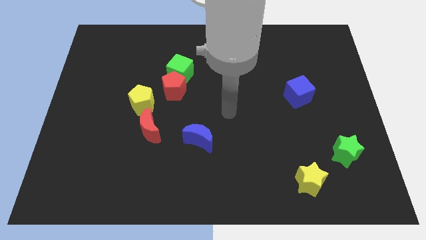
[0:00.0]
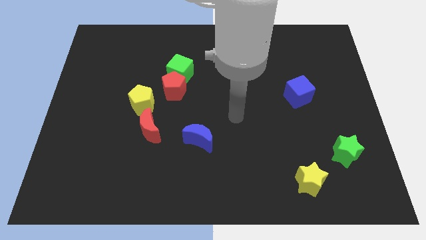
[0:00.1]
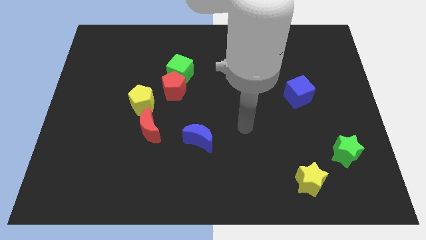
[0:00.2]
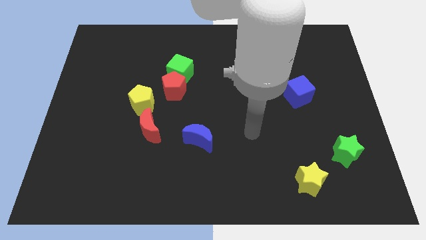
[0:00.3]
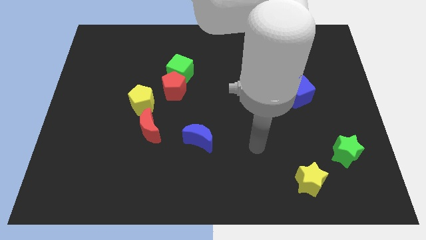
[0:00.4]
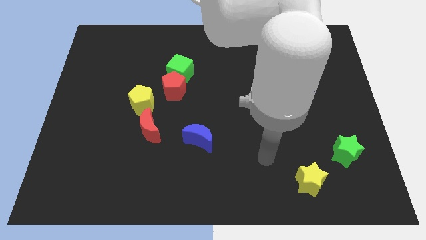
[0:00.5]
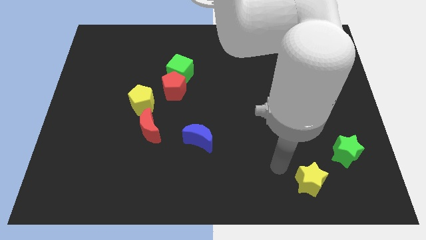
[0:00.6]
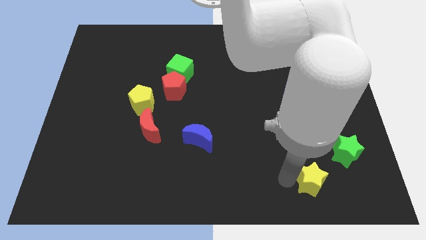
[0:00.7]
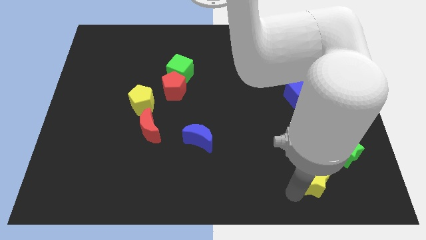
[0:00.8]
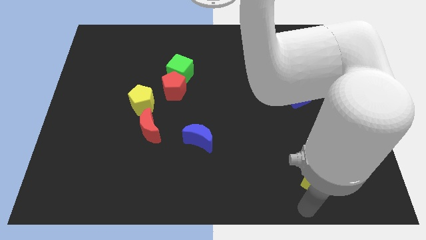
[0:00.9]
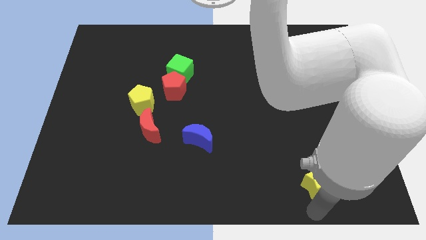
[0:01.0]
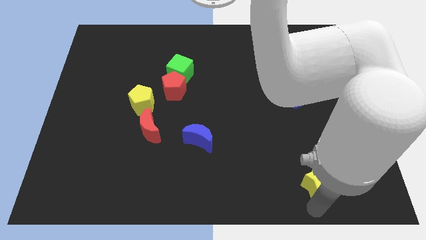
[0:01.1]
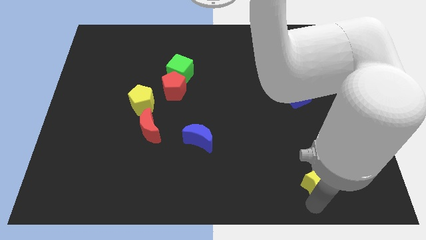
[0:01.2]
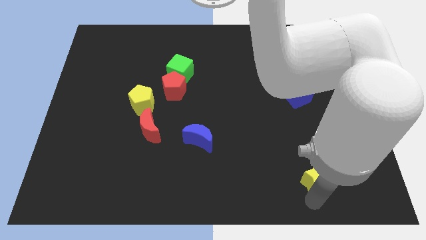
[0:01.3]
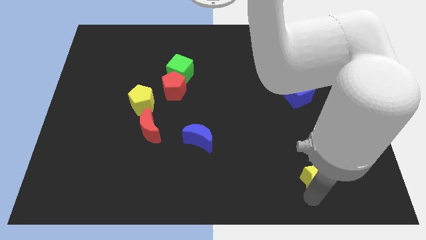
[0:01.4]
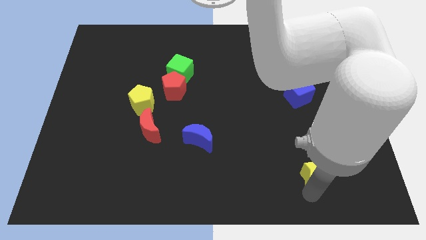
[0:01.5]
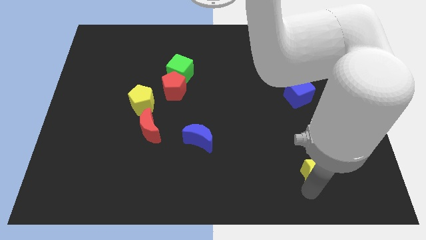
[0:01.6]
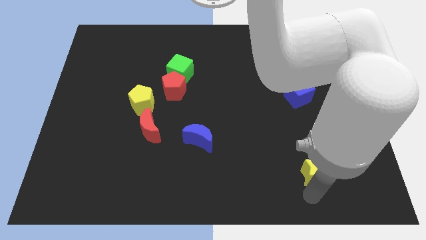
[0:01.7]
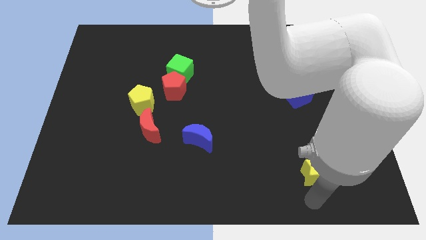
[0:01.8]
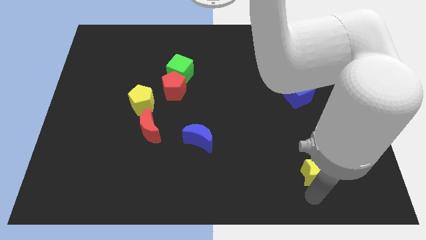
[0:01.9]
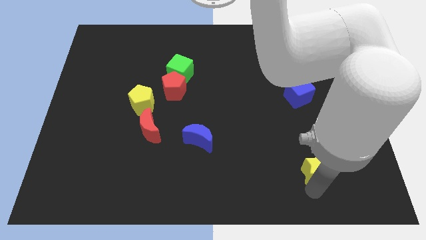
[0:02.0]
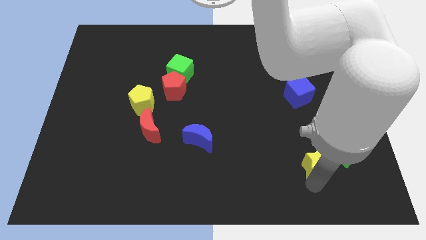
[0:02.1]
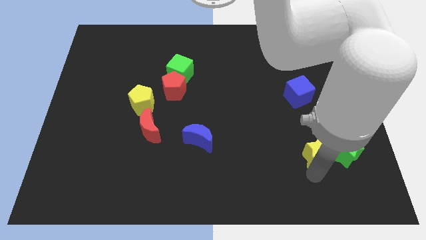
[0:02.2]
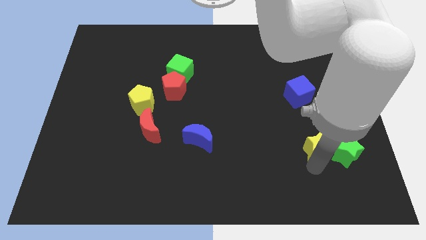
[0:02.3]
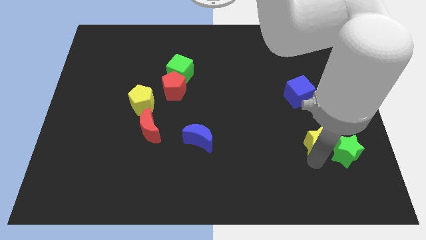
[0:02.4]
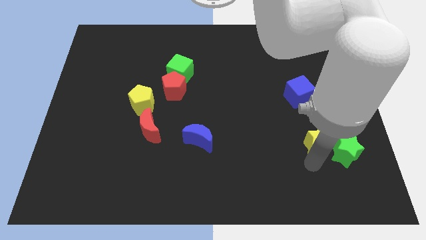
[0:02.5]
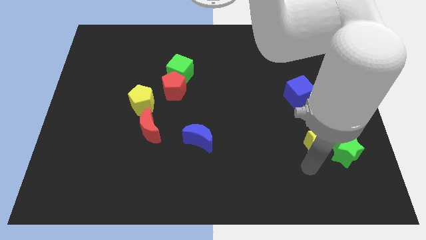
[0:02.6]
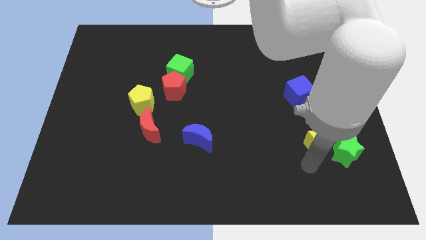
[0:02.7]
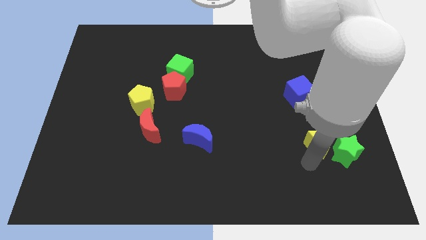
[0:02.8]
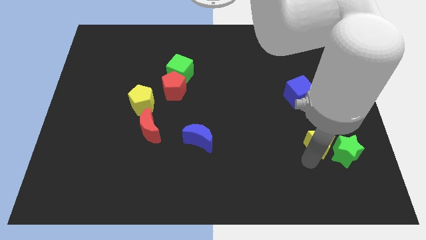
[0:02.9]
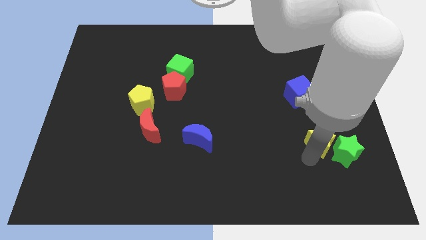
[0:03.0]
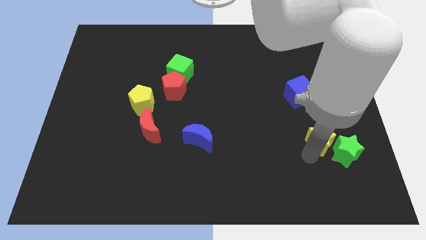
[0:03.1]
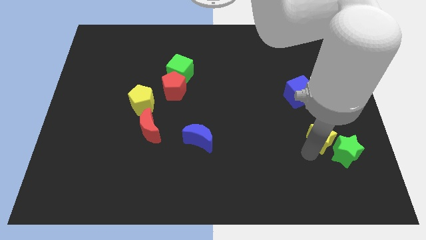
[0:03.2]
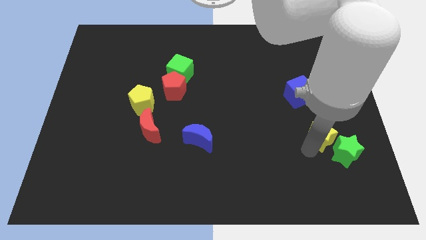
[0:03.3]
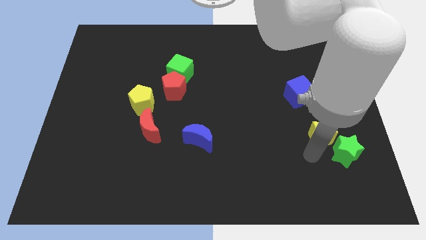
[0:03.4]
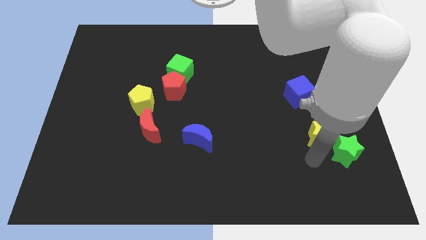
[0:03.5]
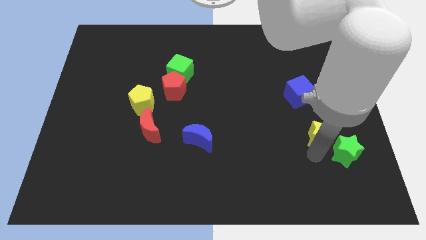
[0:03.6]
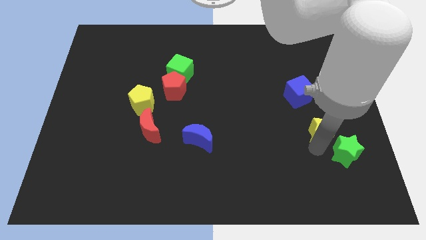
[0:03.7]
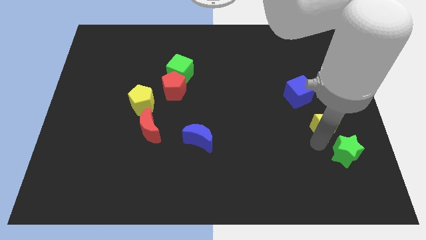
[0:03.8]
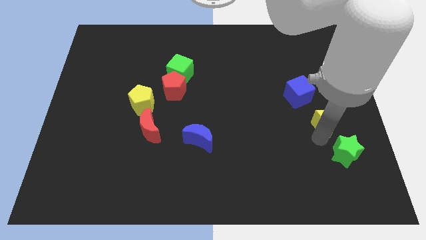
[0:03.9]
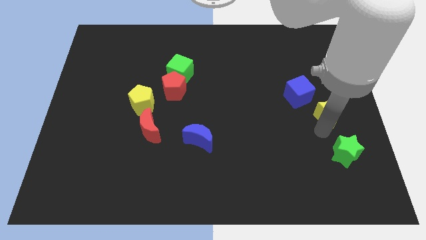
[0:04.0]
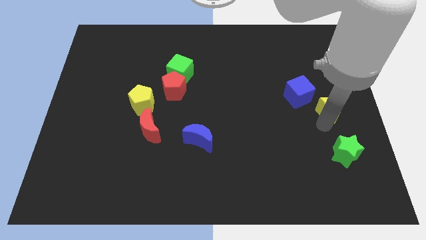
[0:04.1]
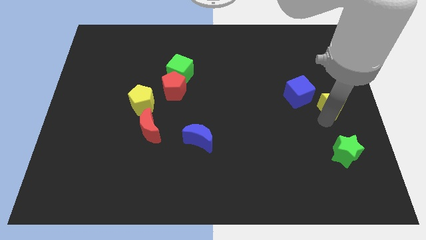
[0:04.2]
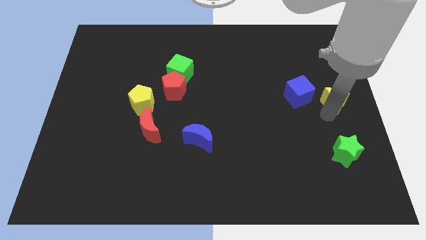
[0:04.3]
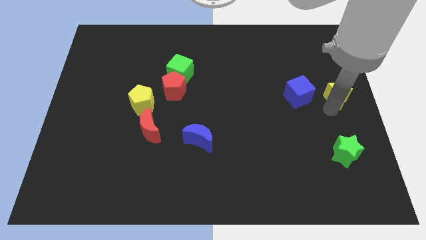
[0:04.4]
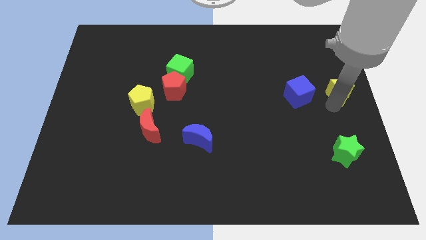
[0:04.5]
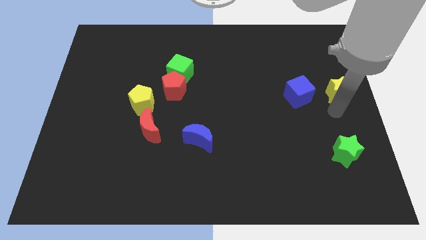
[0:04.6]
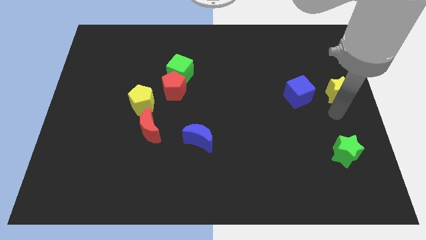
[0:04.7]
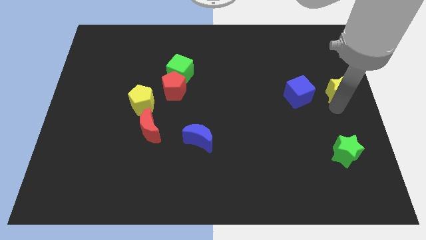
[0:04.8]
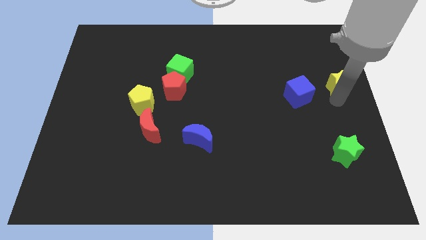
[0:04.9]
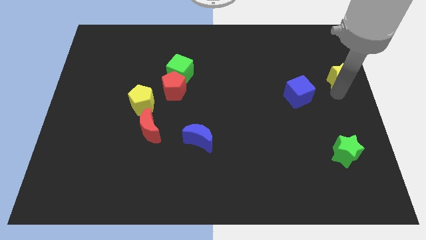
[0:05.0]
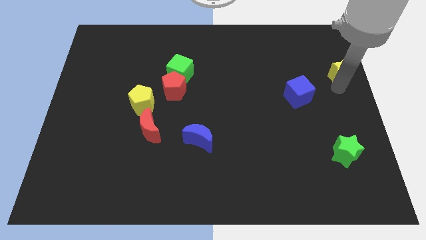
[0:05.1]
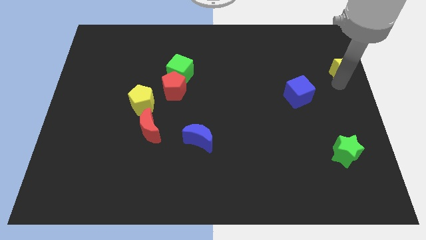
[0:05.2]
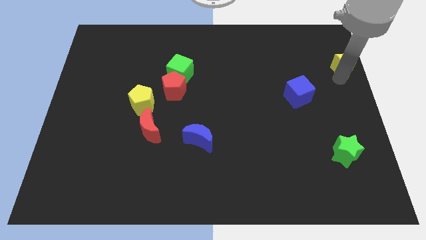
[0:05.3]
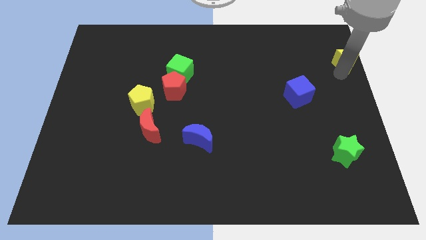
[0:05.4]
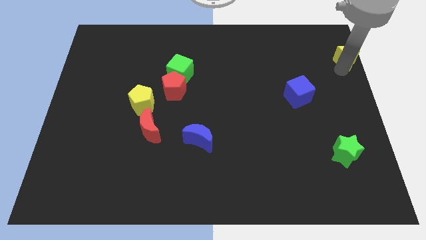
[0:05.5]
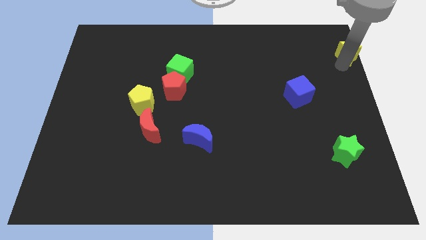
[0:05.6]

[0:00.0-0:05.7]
push the yellow star to the top right

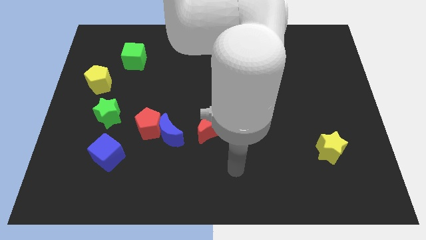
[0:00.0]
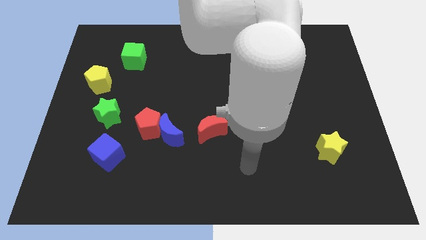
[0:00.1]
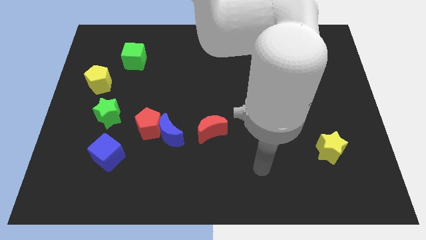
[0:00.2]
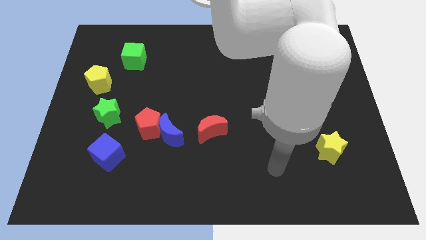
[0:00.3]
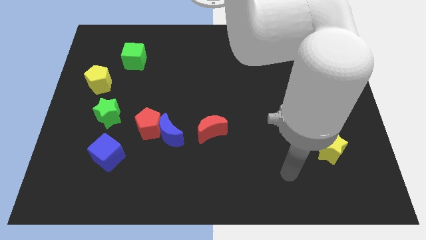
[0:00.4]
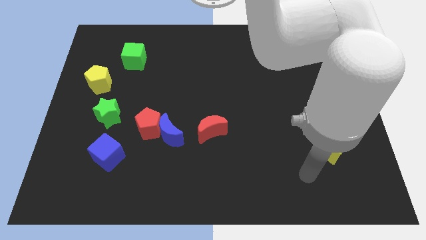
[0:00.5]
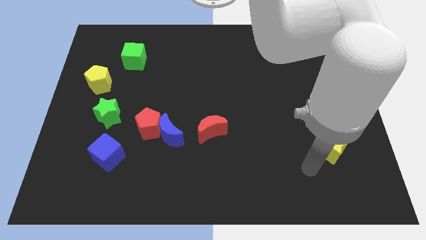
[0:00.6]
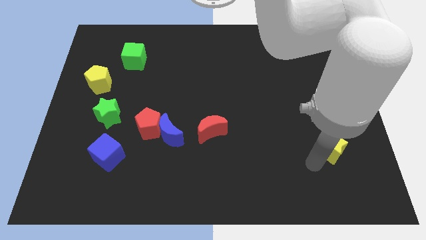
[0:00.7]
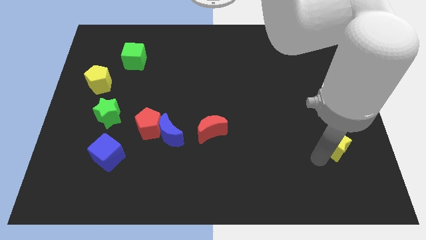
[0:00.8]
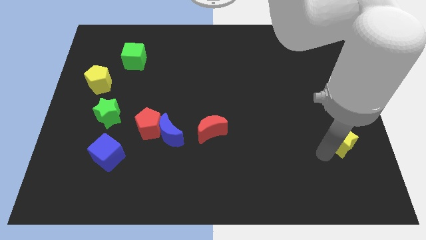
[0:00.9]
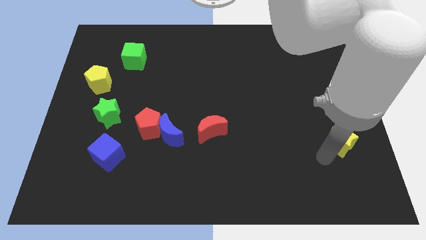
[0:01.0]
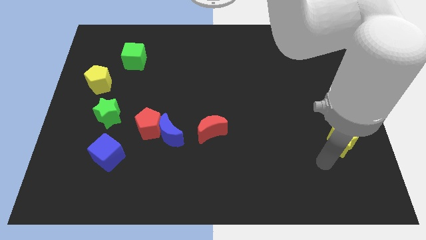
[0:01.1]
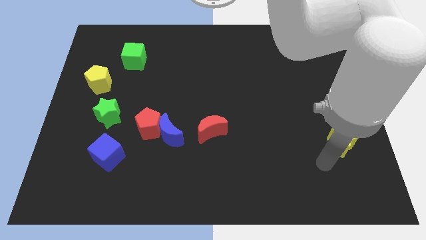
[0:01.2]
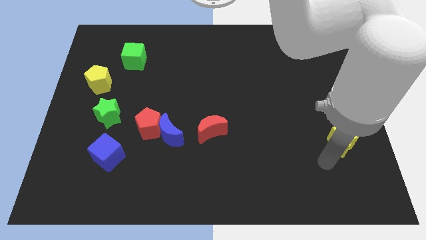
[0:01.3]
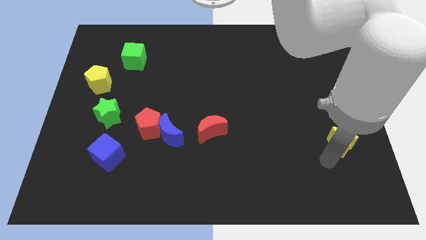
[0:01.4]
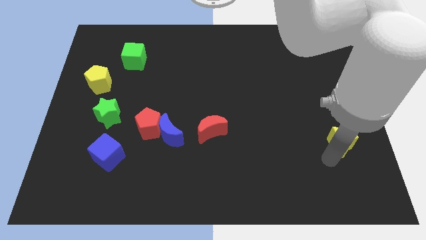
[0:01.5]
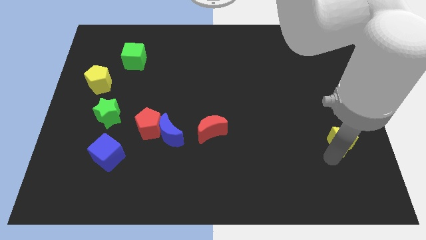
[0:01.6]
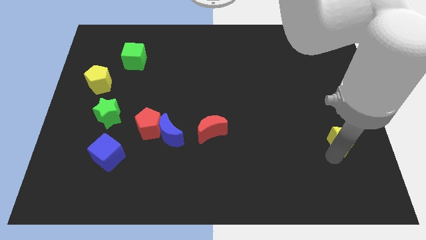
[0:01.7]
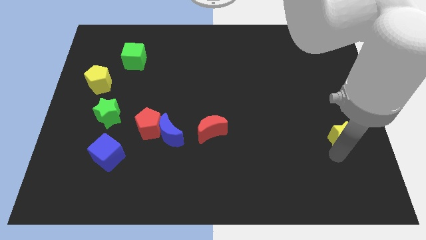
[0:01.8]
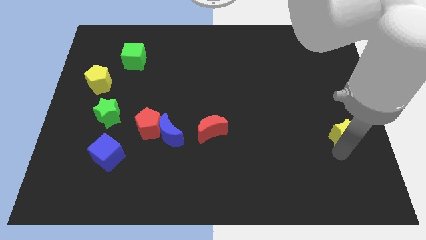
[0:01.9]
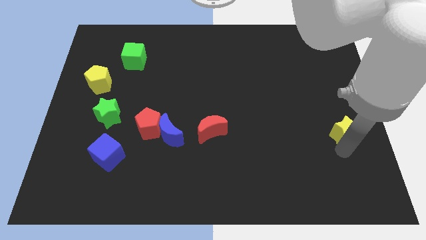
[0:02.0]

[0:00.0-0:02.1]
push the yellow star to the center right
